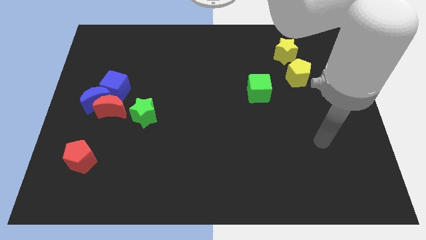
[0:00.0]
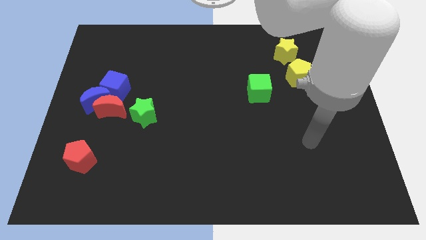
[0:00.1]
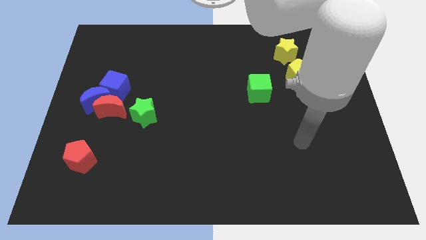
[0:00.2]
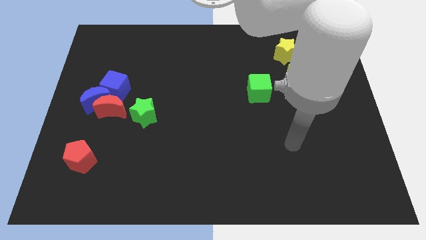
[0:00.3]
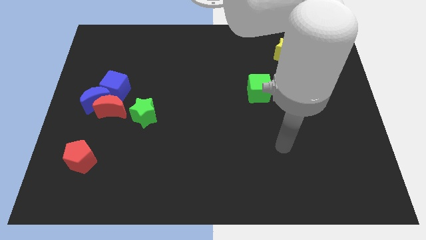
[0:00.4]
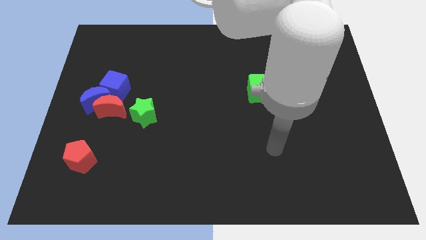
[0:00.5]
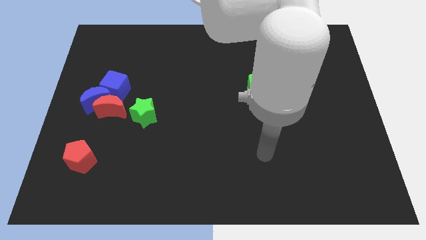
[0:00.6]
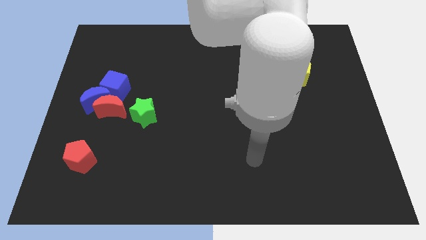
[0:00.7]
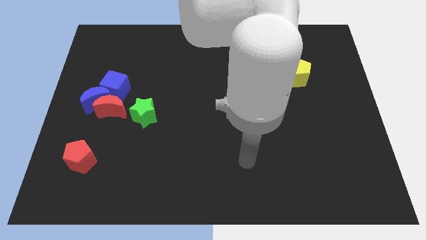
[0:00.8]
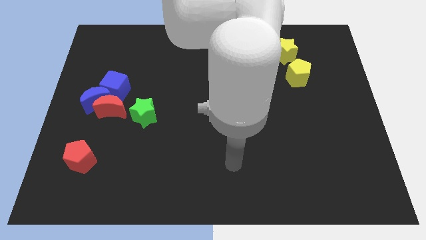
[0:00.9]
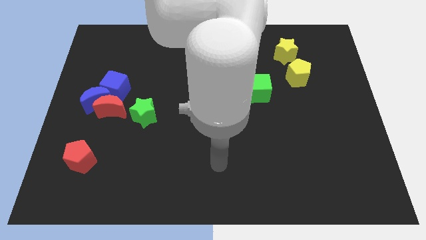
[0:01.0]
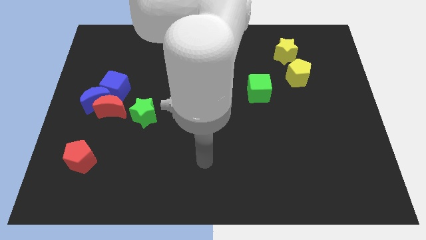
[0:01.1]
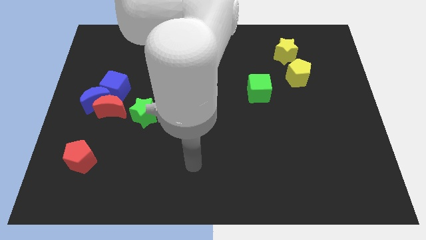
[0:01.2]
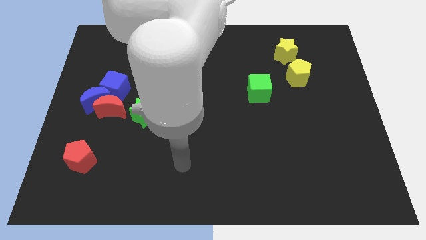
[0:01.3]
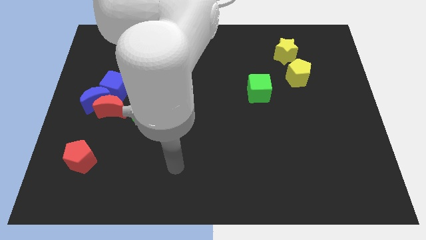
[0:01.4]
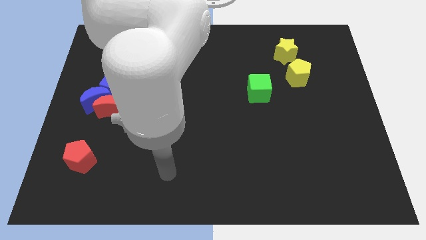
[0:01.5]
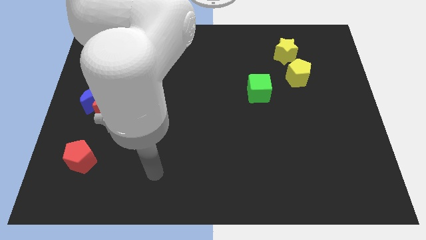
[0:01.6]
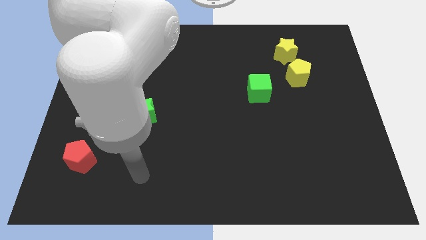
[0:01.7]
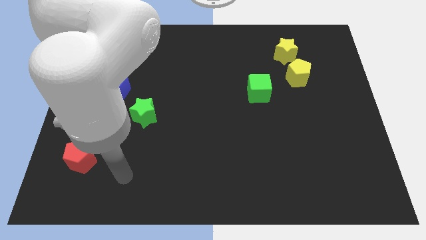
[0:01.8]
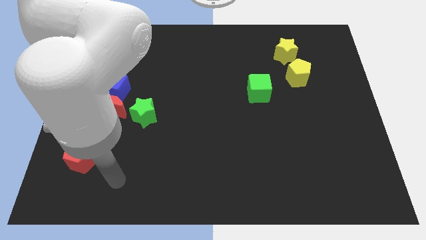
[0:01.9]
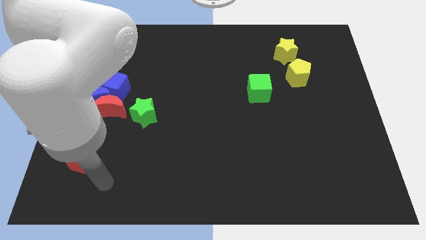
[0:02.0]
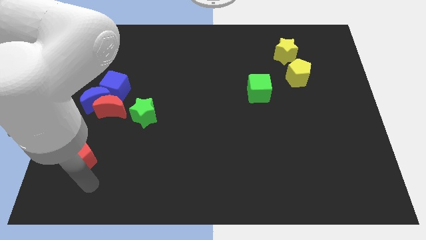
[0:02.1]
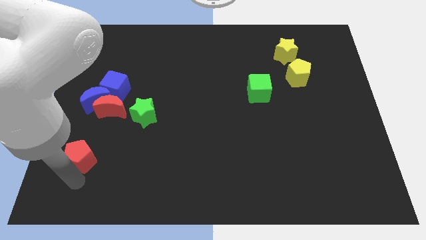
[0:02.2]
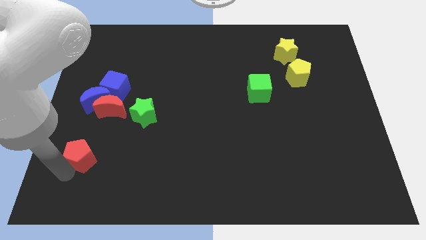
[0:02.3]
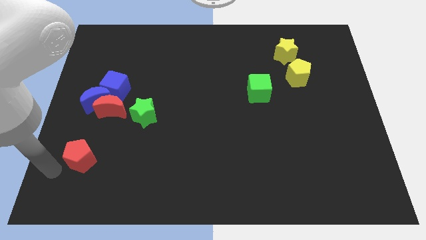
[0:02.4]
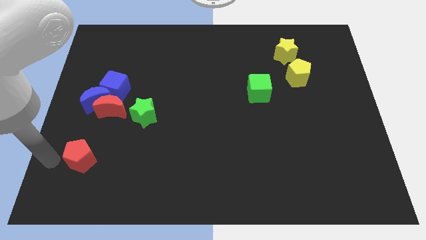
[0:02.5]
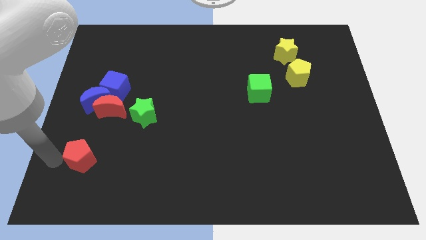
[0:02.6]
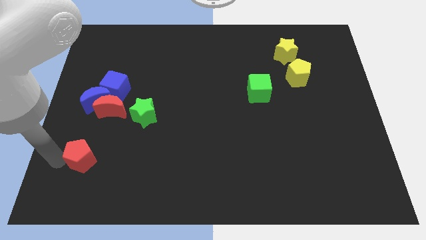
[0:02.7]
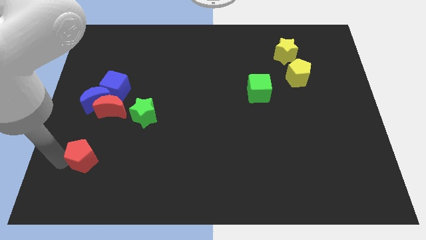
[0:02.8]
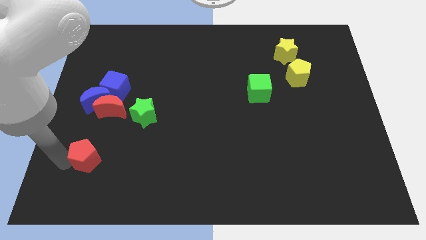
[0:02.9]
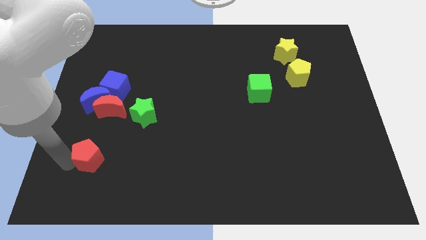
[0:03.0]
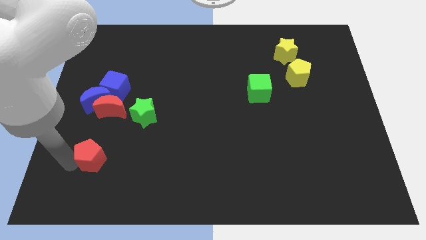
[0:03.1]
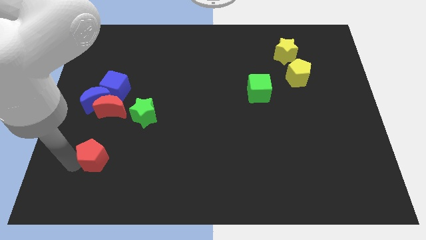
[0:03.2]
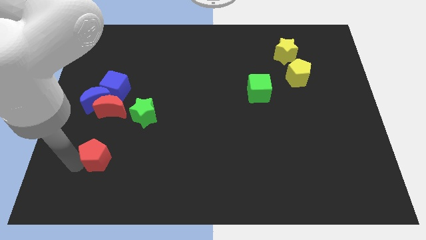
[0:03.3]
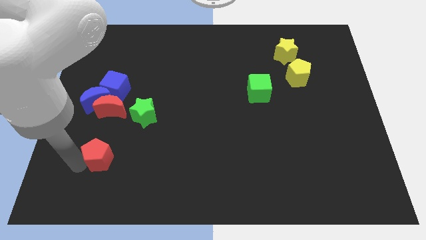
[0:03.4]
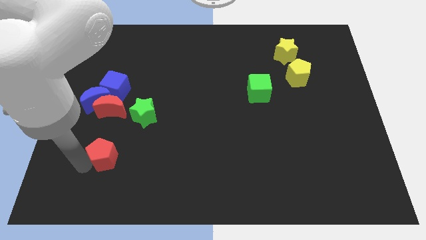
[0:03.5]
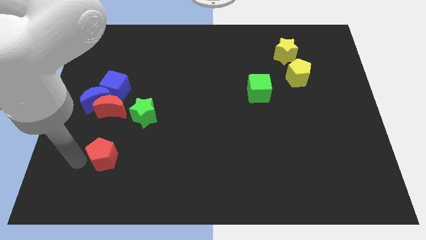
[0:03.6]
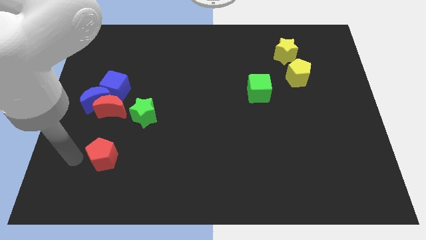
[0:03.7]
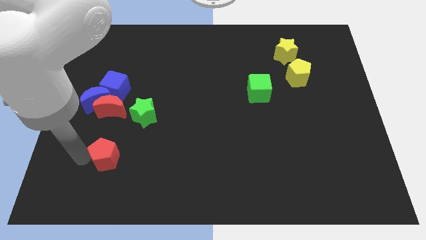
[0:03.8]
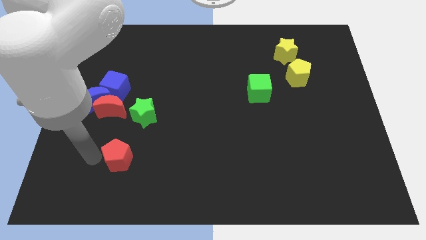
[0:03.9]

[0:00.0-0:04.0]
move the red pentagon to the right a little bit

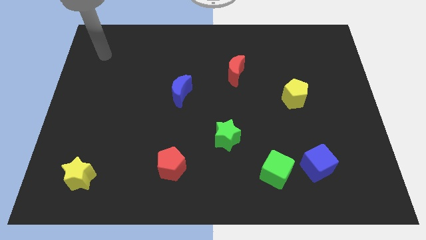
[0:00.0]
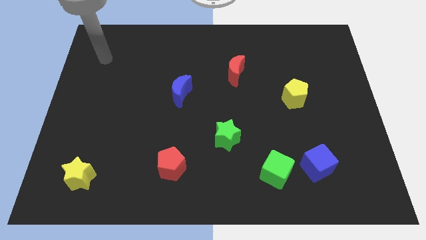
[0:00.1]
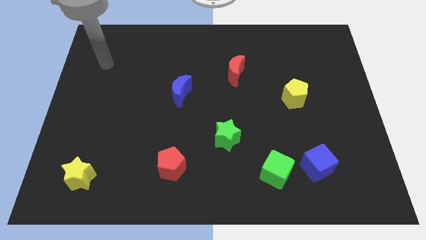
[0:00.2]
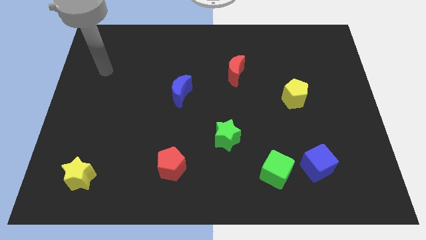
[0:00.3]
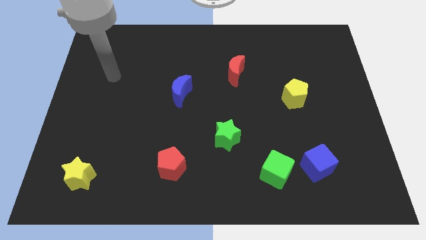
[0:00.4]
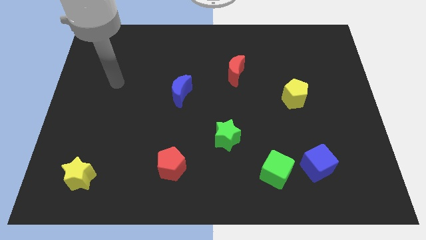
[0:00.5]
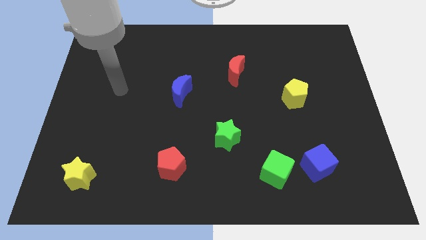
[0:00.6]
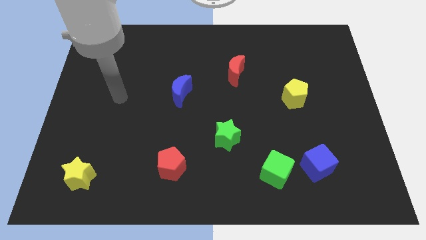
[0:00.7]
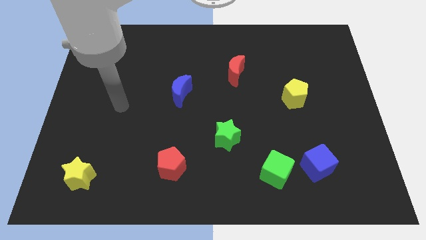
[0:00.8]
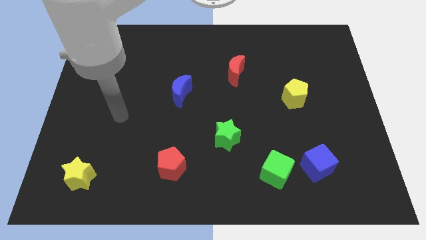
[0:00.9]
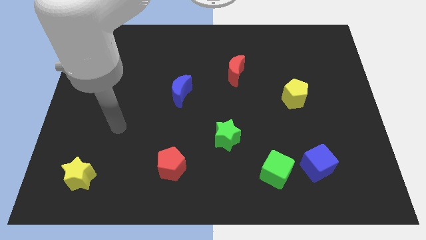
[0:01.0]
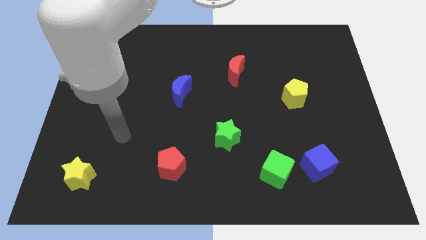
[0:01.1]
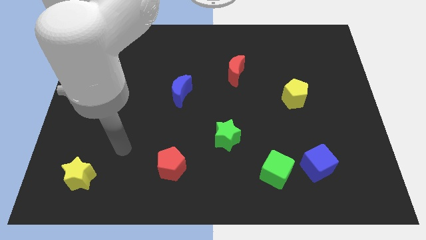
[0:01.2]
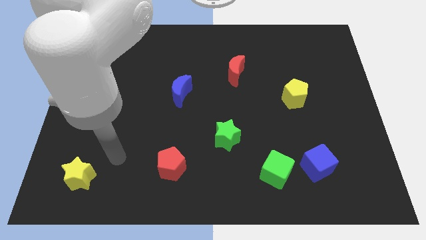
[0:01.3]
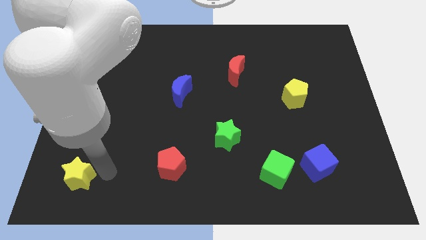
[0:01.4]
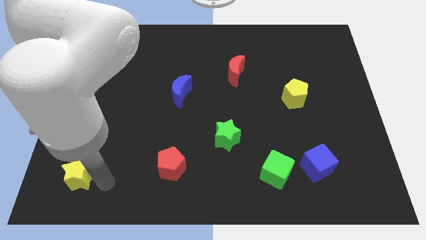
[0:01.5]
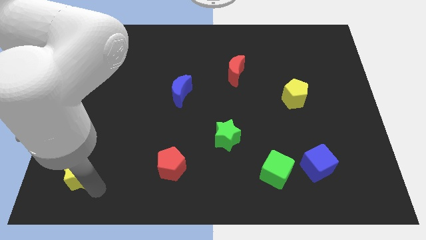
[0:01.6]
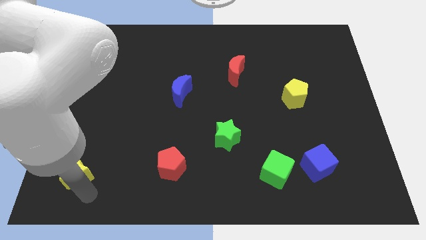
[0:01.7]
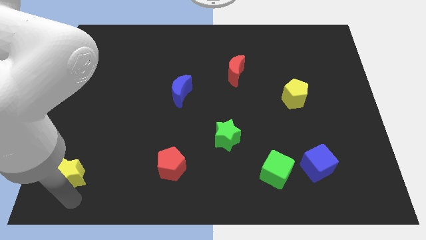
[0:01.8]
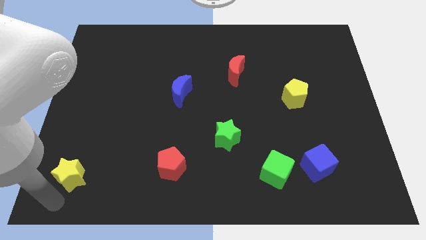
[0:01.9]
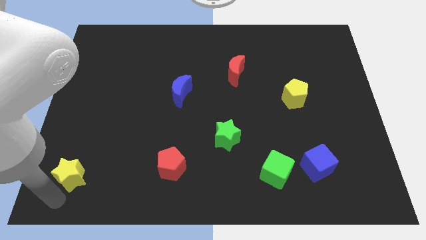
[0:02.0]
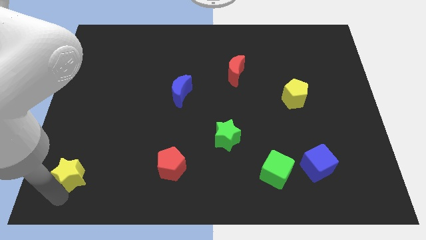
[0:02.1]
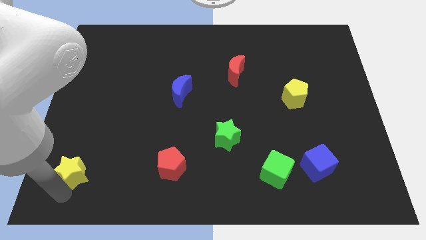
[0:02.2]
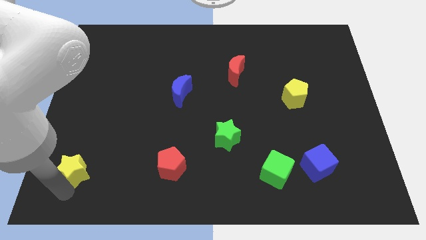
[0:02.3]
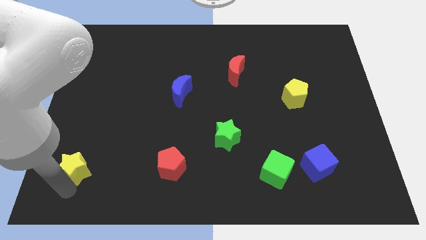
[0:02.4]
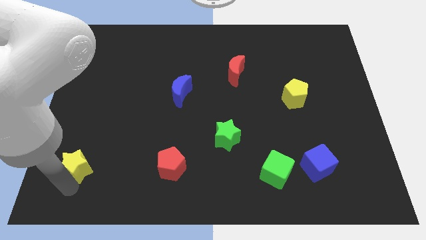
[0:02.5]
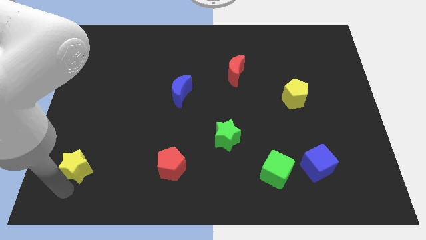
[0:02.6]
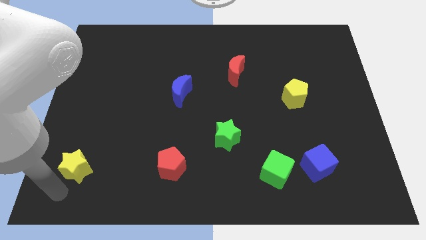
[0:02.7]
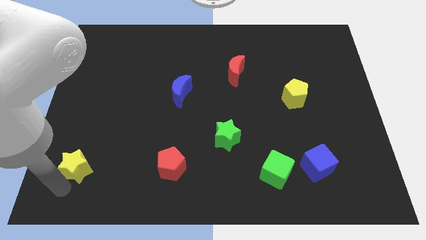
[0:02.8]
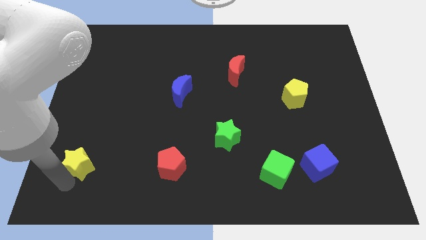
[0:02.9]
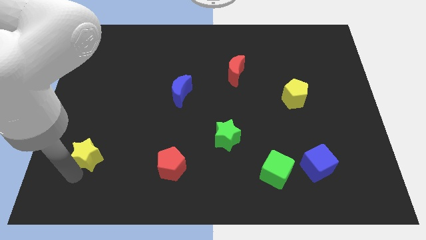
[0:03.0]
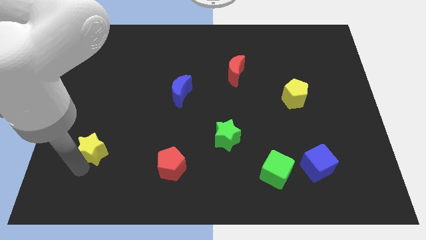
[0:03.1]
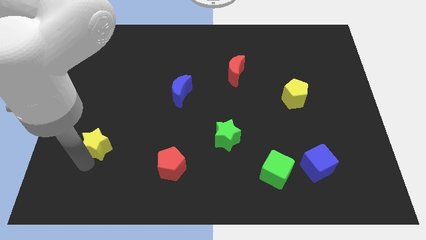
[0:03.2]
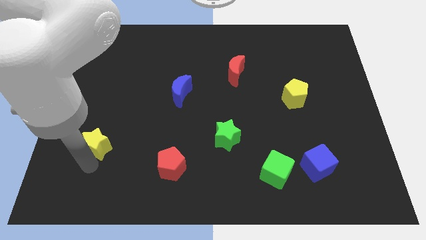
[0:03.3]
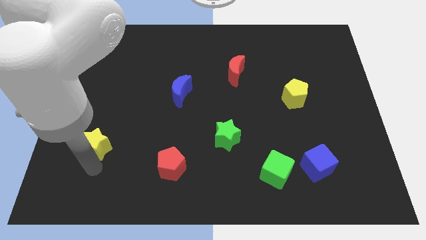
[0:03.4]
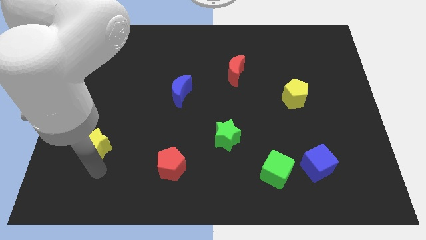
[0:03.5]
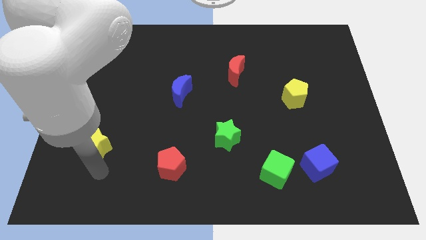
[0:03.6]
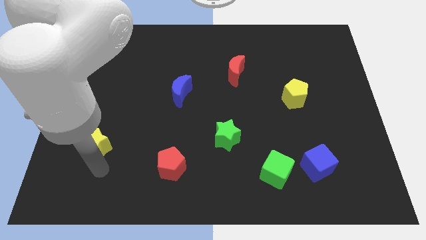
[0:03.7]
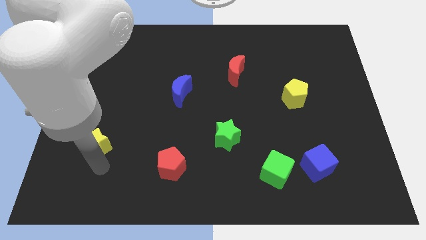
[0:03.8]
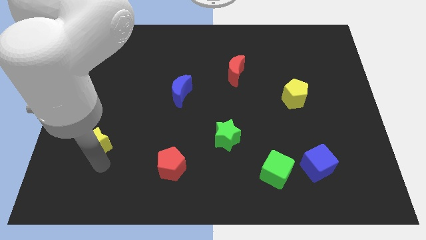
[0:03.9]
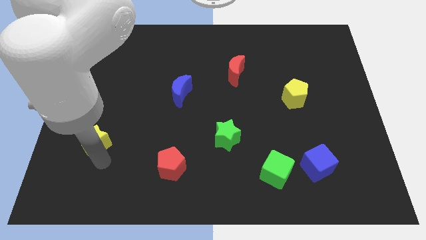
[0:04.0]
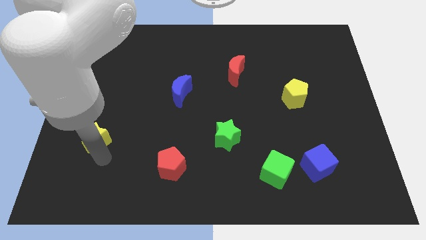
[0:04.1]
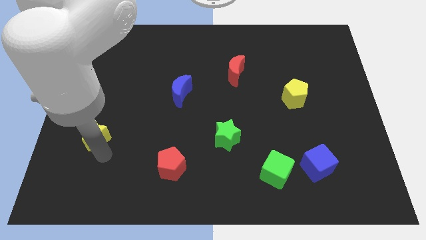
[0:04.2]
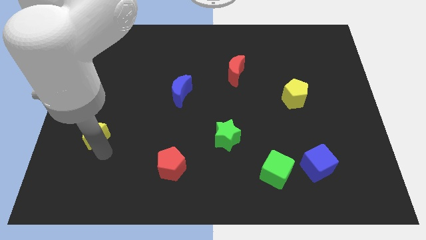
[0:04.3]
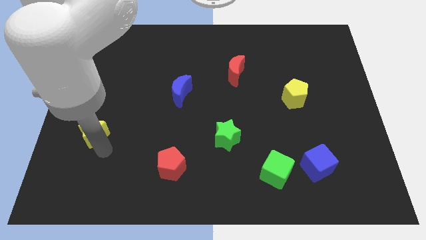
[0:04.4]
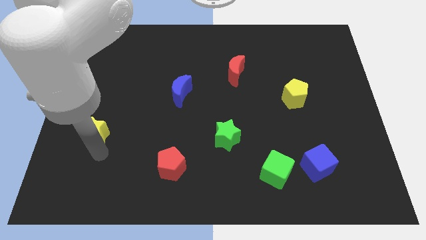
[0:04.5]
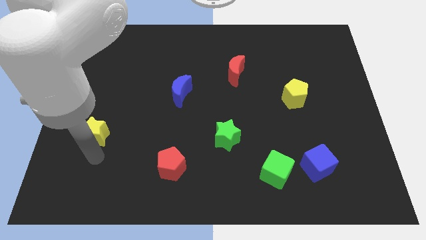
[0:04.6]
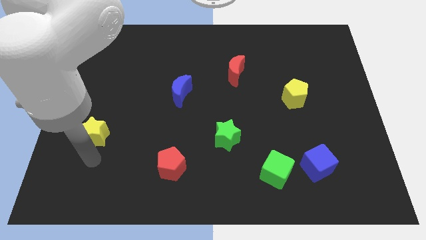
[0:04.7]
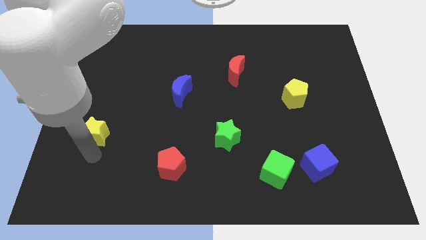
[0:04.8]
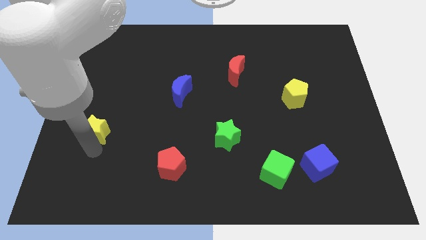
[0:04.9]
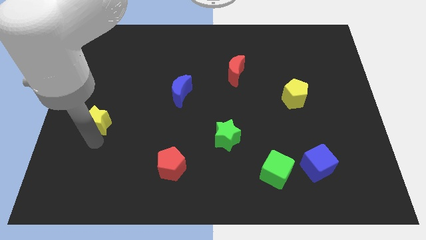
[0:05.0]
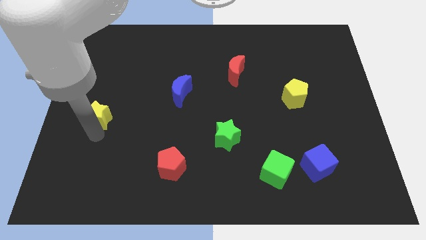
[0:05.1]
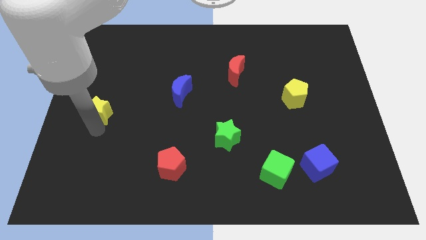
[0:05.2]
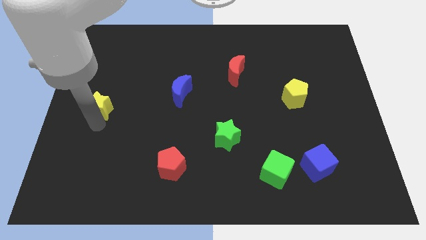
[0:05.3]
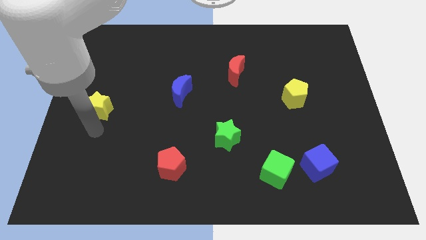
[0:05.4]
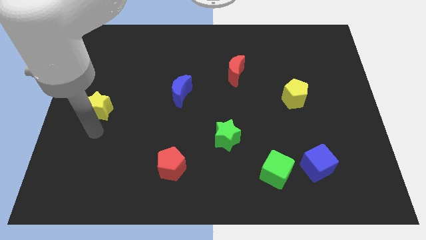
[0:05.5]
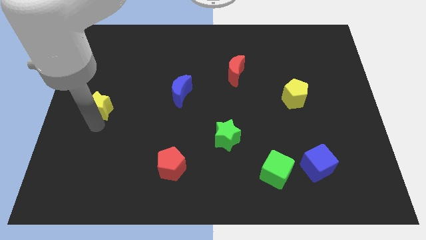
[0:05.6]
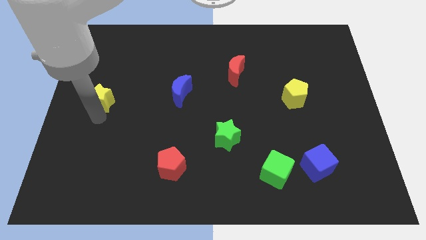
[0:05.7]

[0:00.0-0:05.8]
push the yellow star upwards
